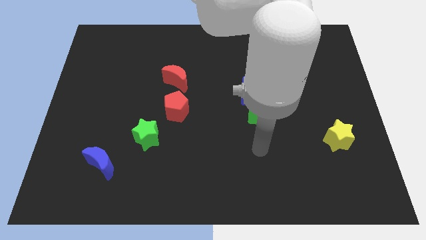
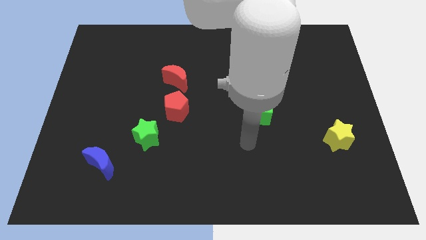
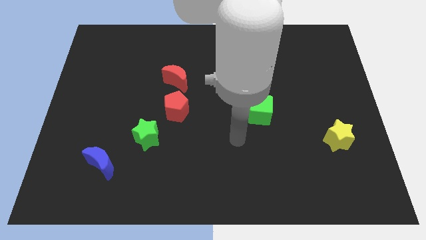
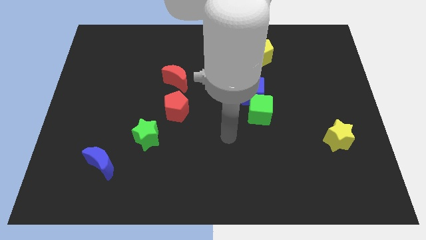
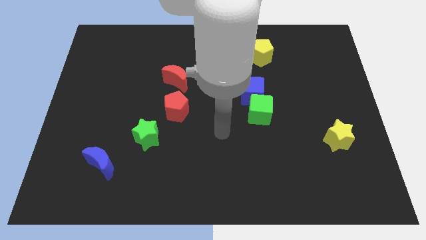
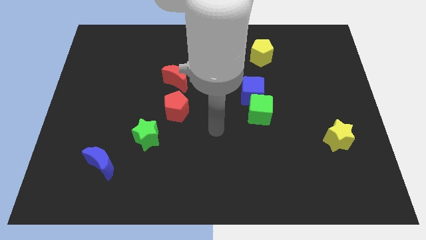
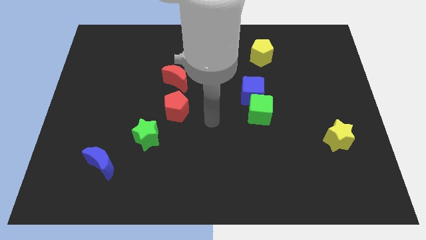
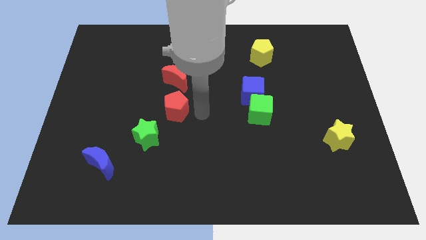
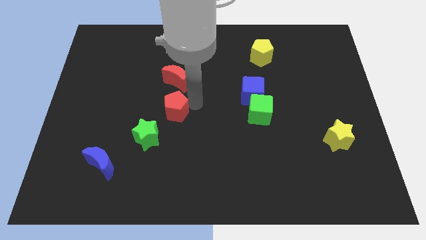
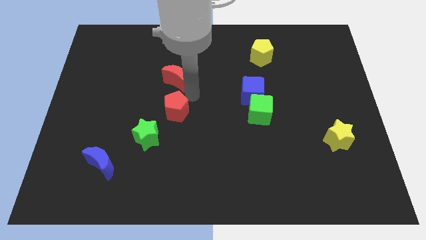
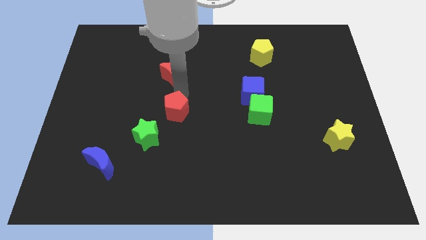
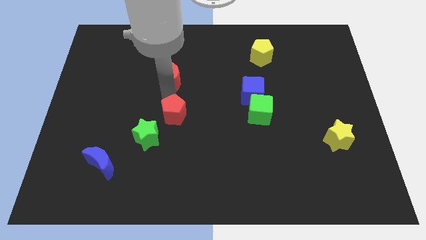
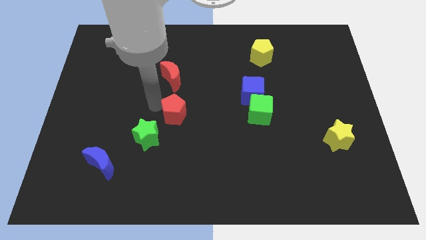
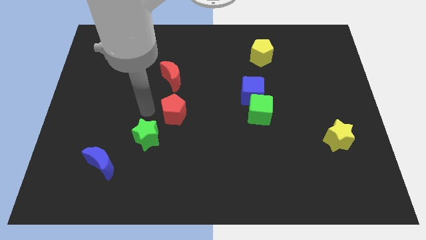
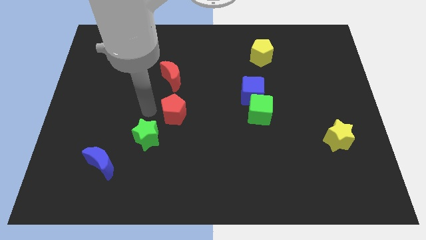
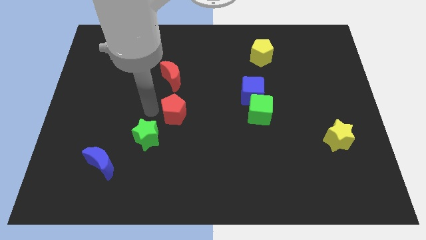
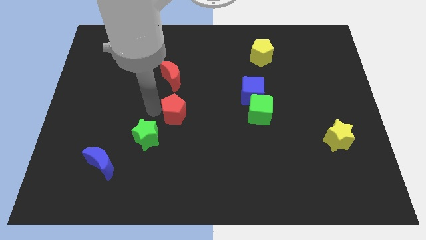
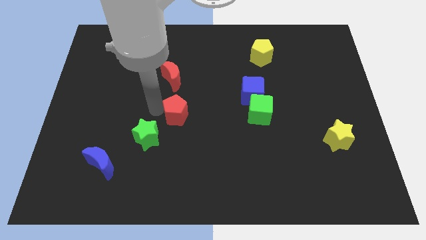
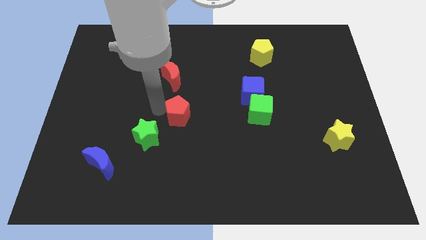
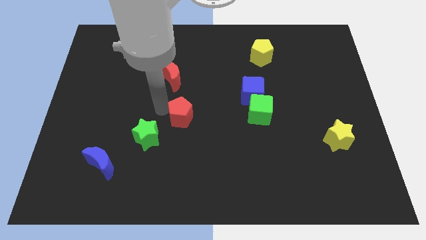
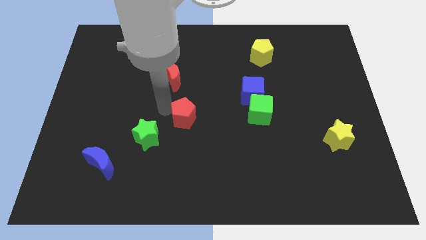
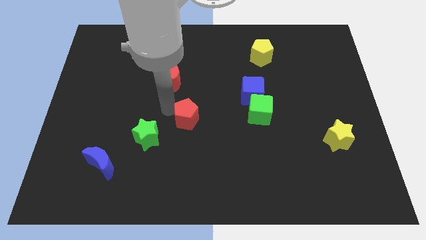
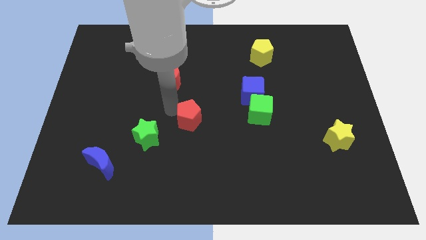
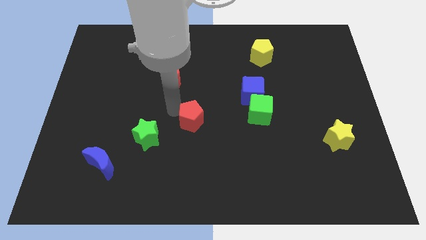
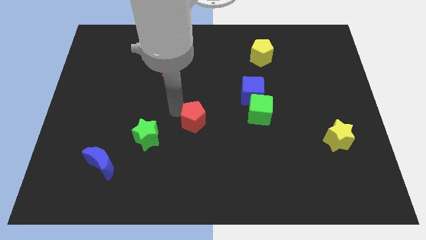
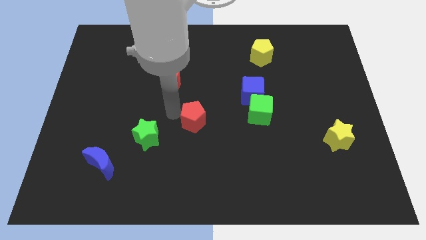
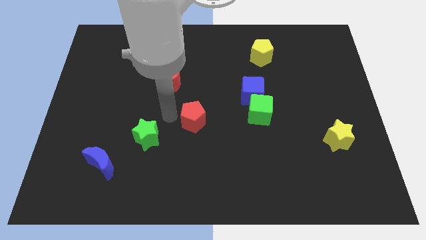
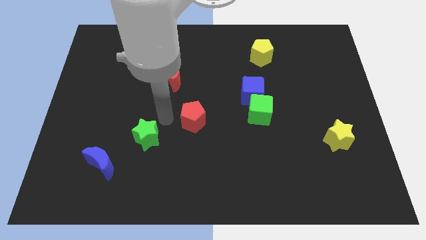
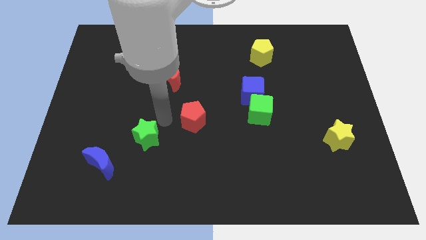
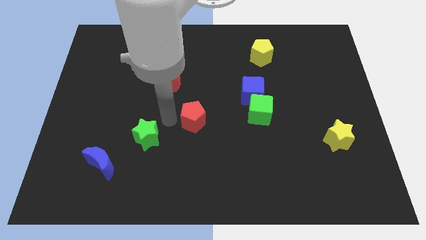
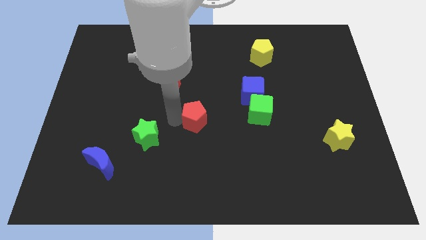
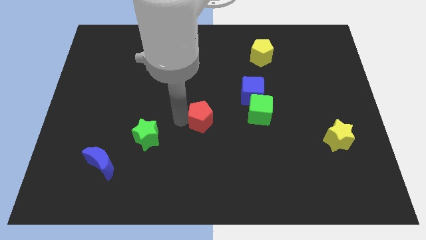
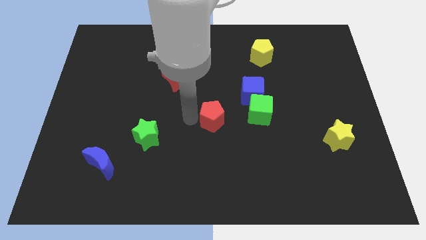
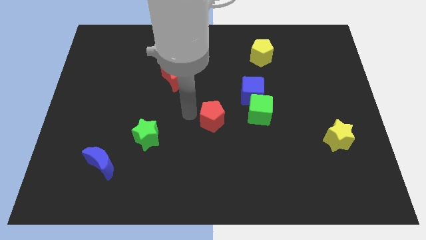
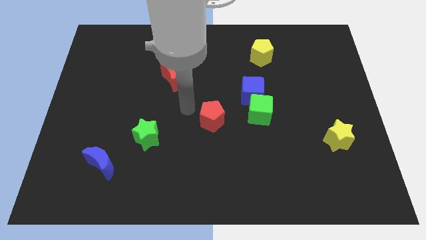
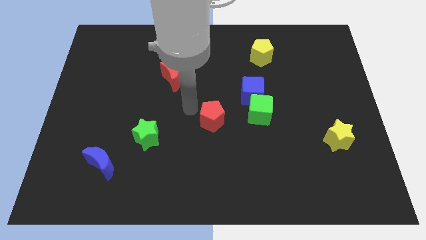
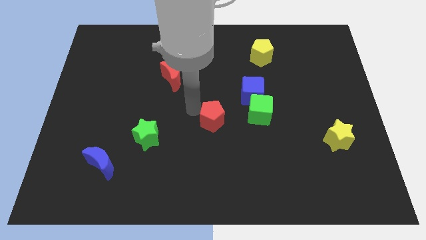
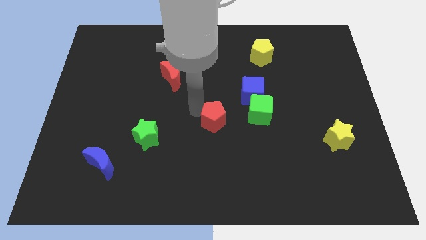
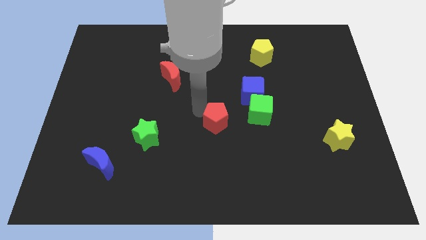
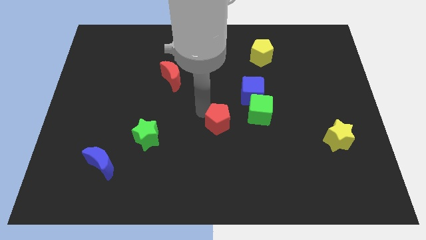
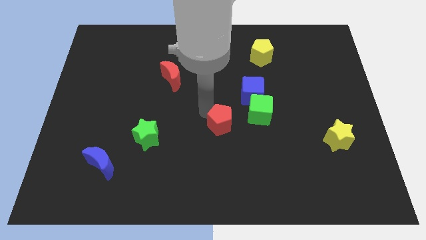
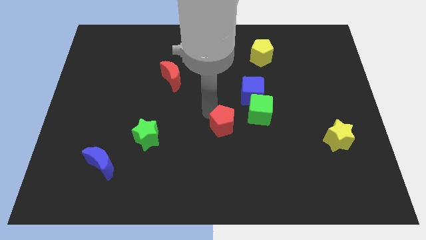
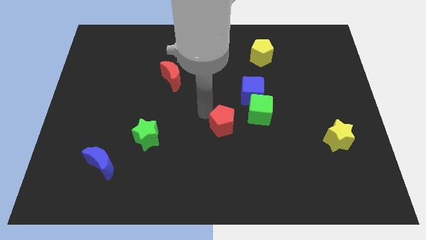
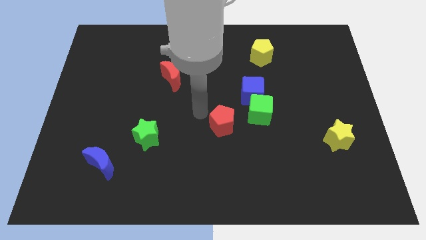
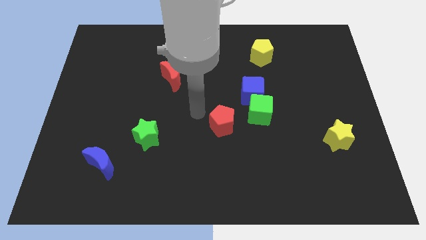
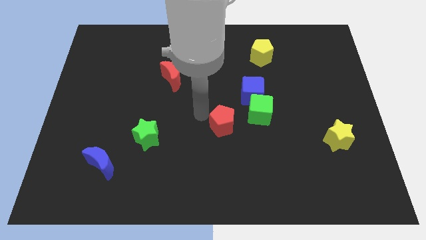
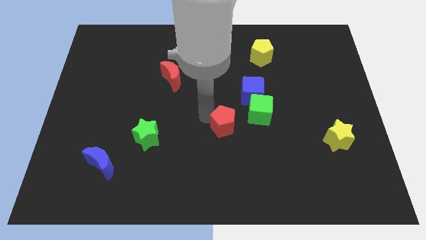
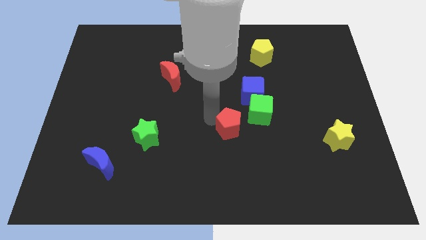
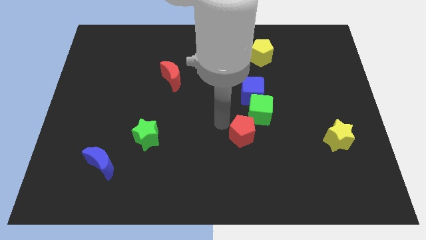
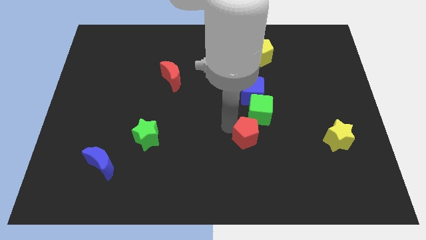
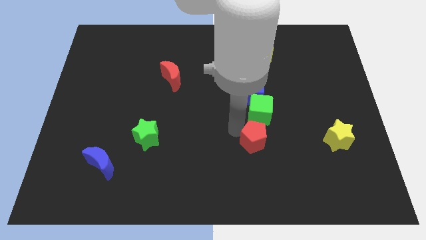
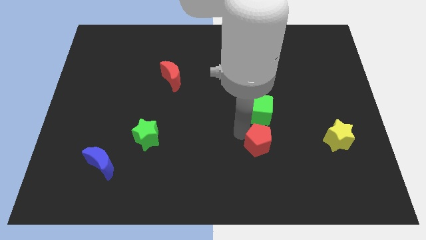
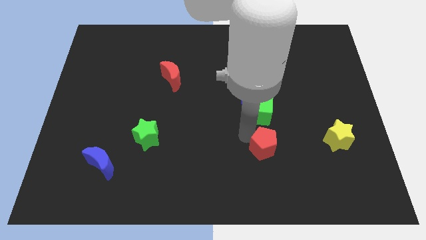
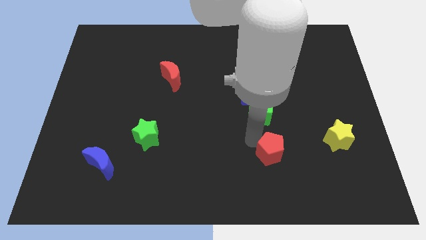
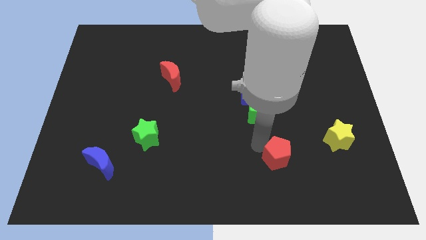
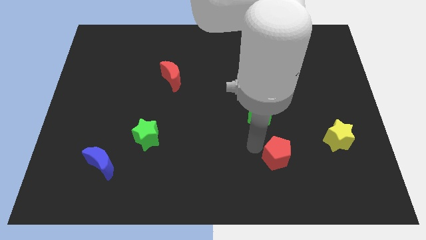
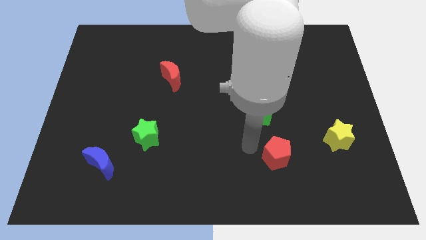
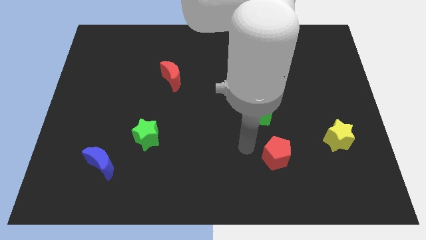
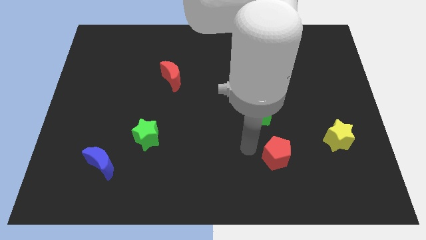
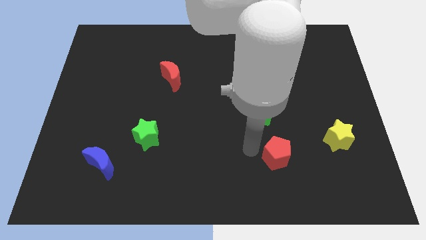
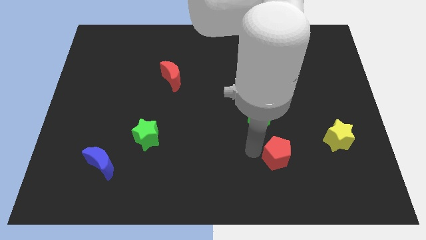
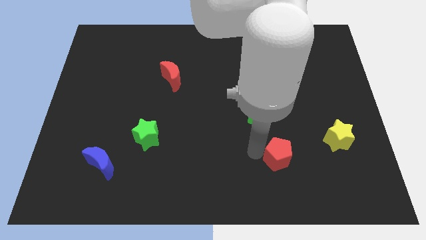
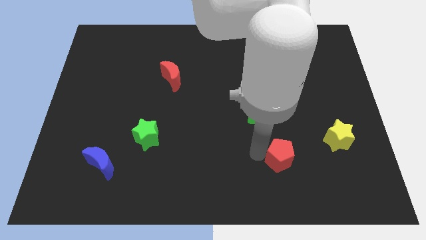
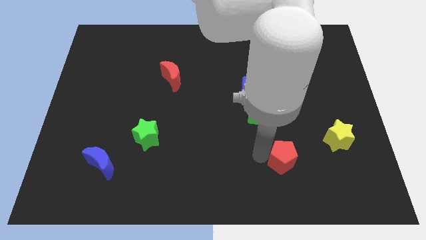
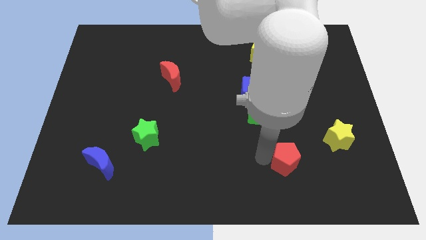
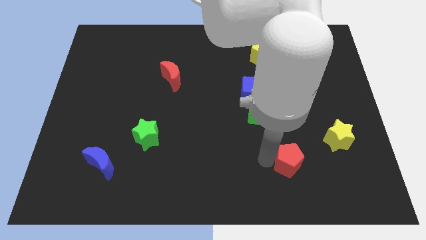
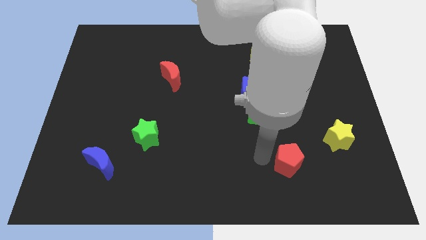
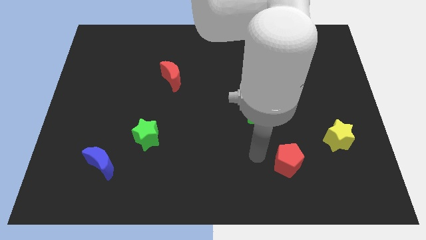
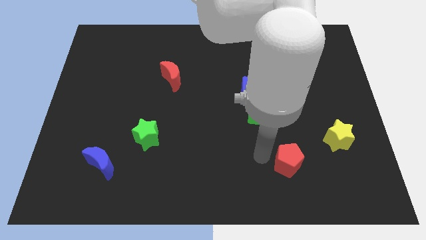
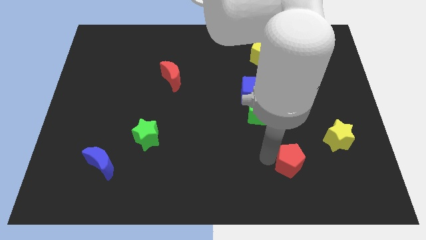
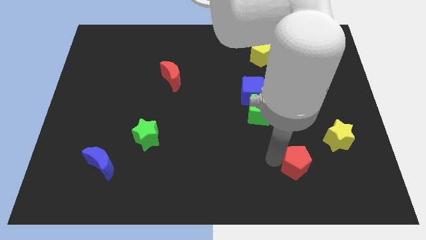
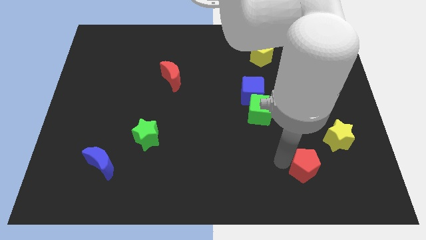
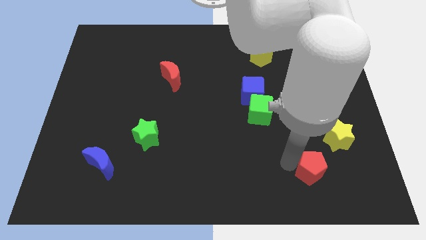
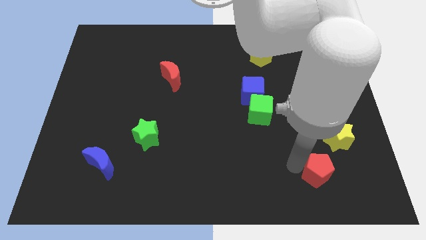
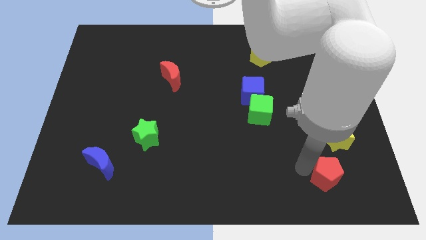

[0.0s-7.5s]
move the red pentagon to the bottom of the yellow star
